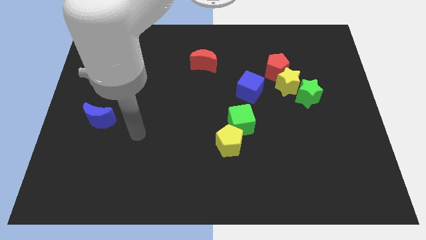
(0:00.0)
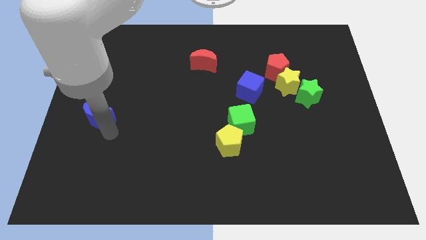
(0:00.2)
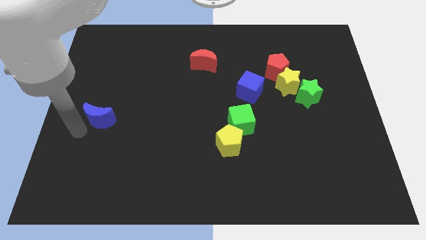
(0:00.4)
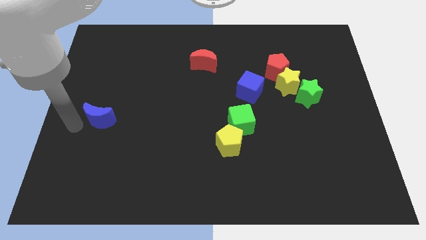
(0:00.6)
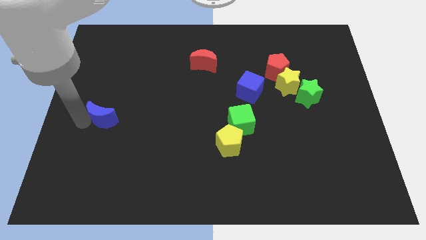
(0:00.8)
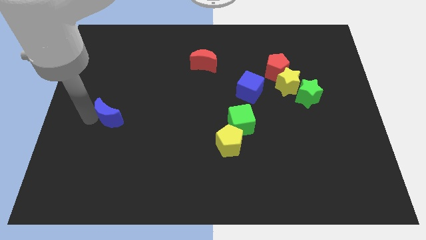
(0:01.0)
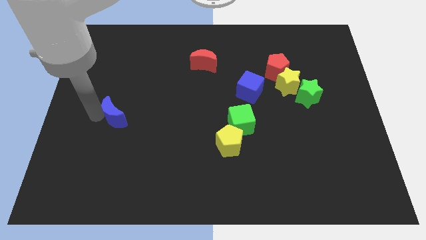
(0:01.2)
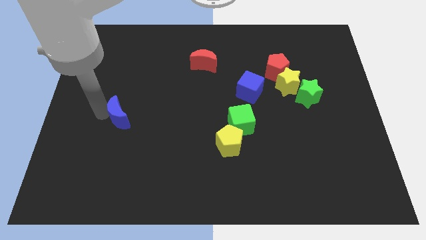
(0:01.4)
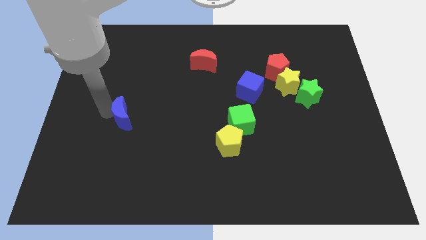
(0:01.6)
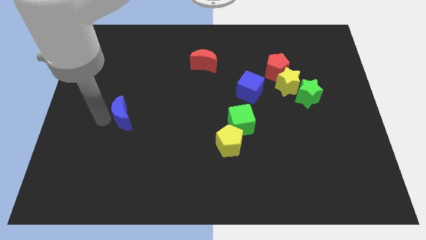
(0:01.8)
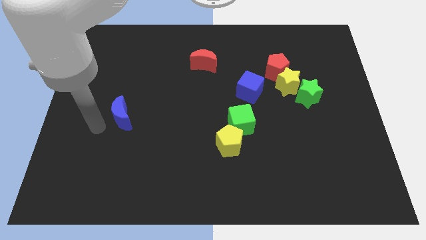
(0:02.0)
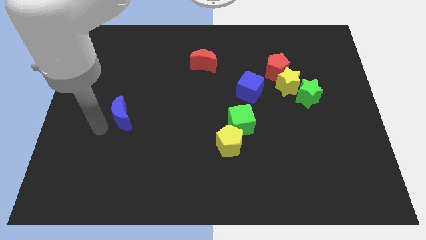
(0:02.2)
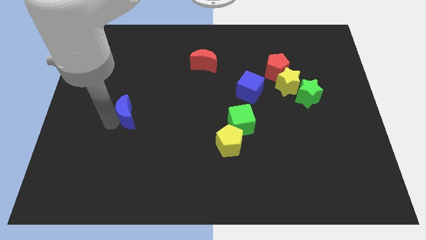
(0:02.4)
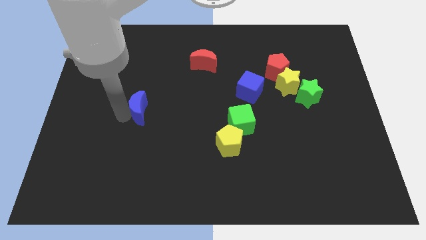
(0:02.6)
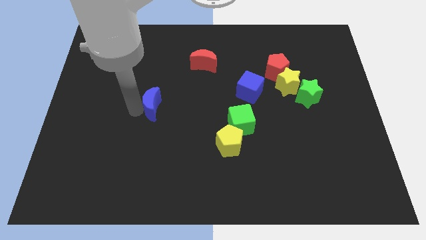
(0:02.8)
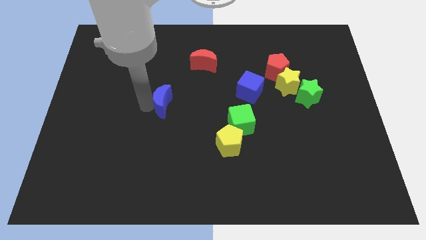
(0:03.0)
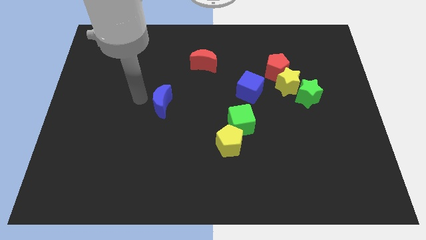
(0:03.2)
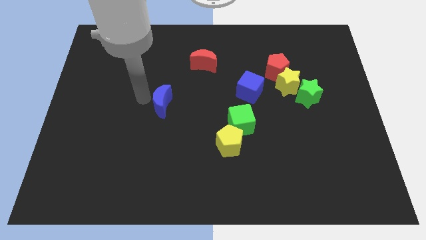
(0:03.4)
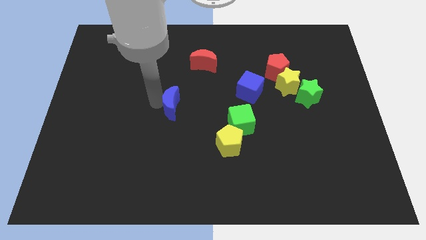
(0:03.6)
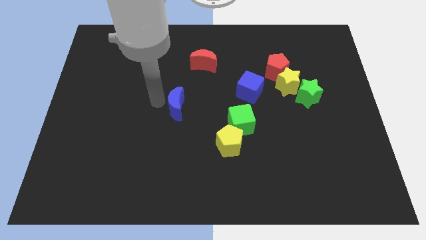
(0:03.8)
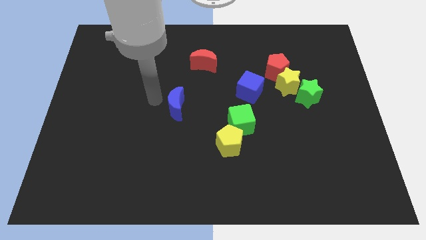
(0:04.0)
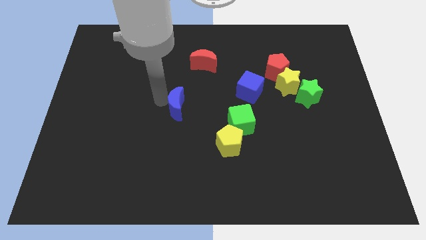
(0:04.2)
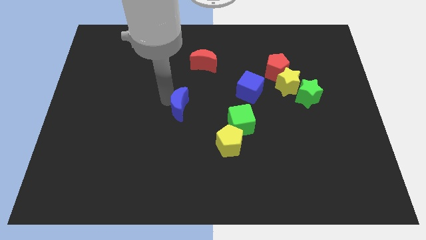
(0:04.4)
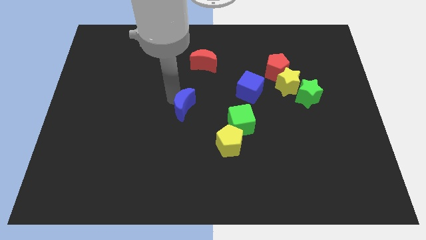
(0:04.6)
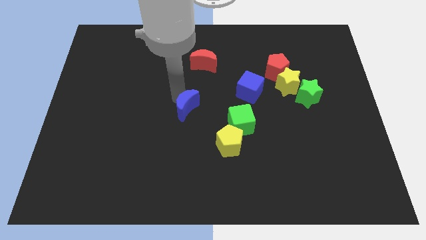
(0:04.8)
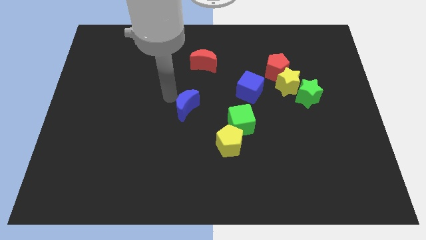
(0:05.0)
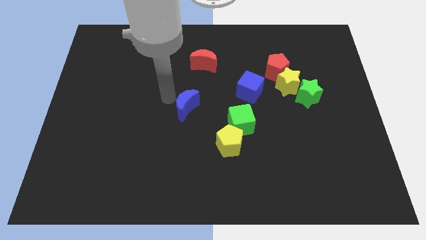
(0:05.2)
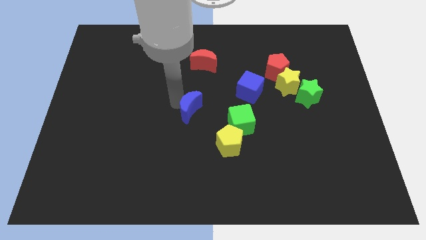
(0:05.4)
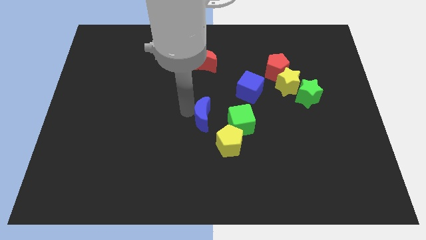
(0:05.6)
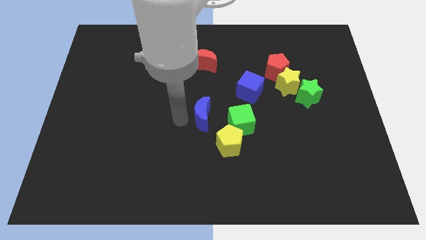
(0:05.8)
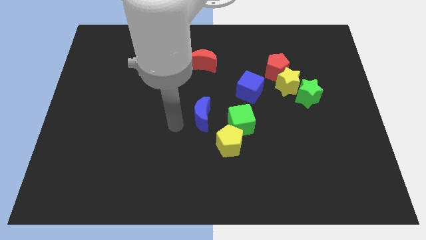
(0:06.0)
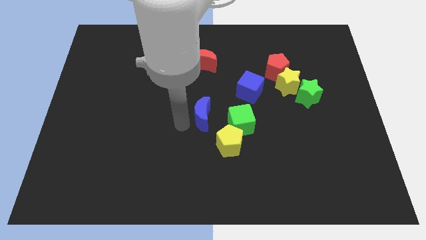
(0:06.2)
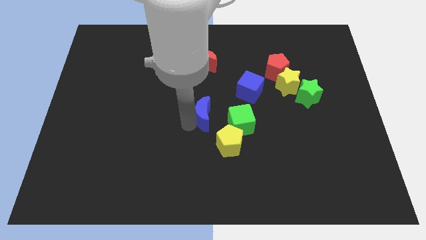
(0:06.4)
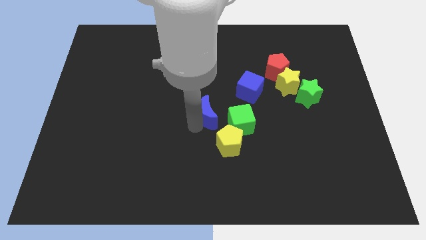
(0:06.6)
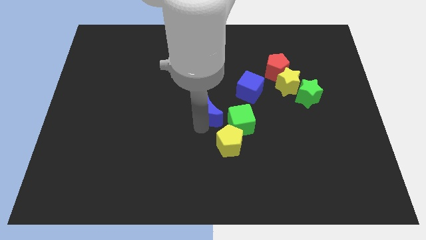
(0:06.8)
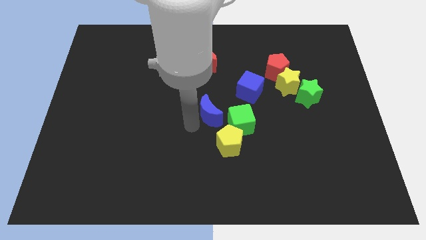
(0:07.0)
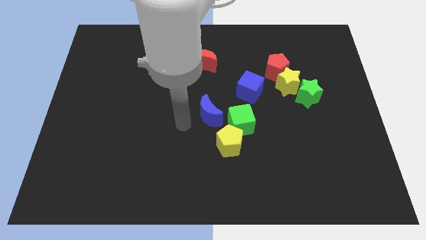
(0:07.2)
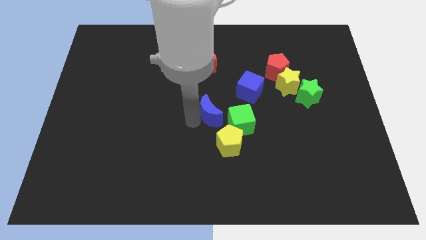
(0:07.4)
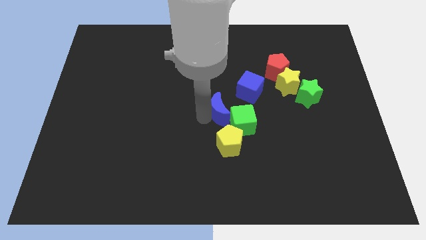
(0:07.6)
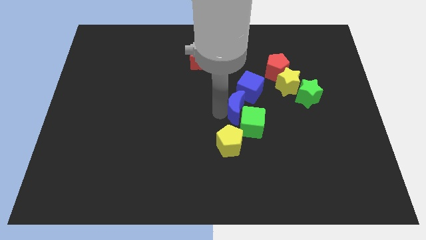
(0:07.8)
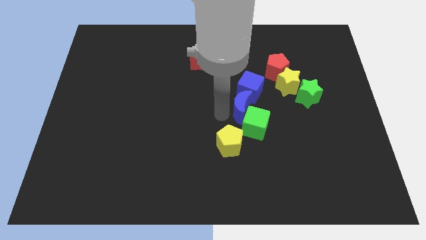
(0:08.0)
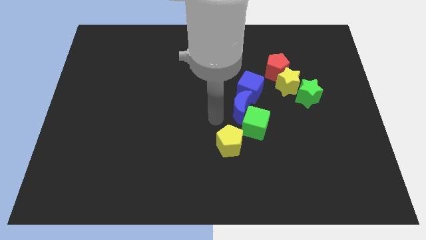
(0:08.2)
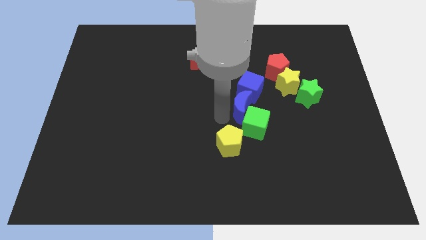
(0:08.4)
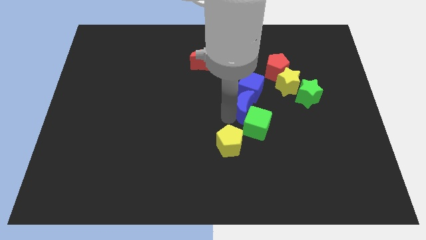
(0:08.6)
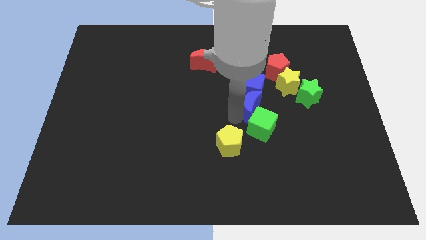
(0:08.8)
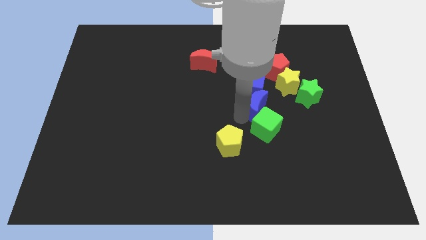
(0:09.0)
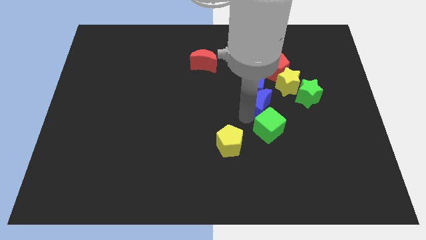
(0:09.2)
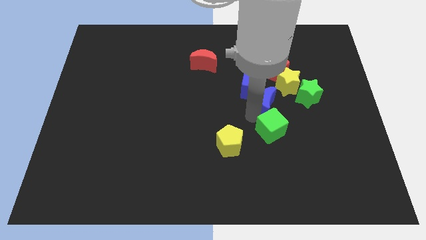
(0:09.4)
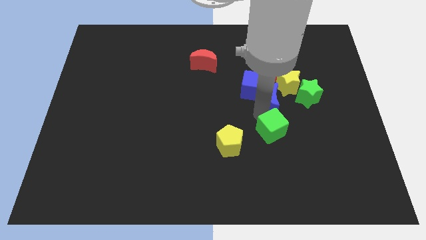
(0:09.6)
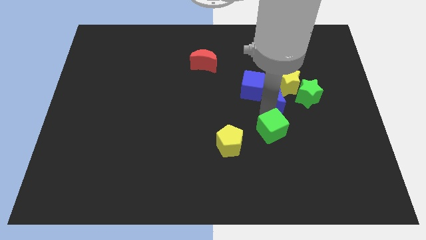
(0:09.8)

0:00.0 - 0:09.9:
move the blue moon to the yellow star

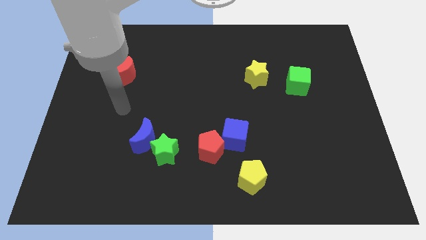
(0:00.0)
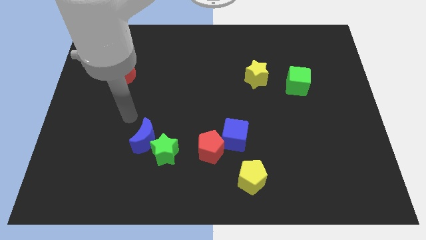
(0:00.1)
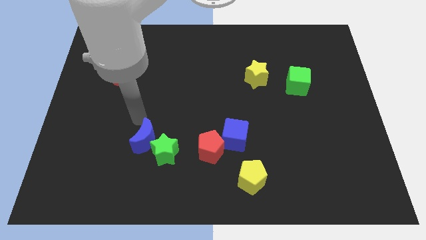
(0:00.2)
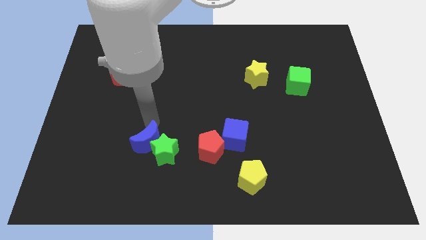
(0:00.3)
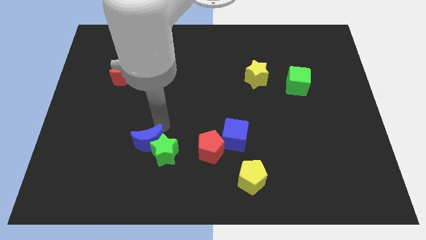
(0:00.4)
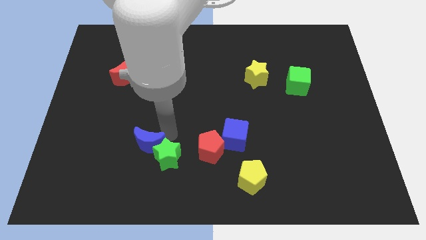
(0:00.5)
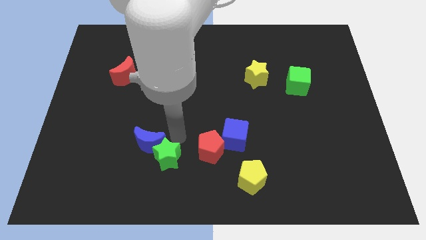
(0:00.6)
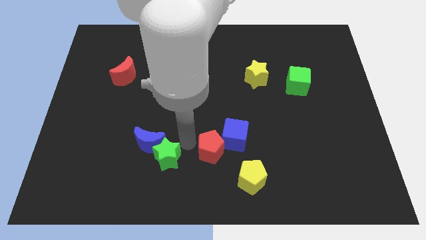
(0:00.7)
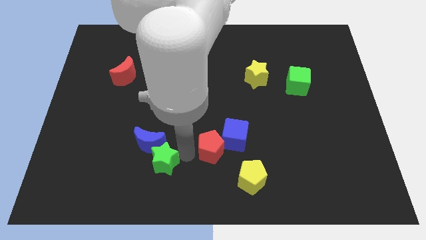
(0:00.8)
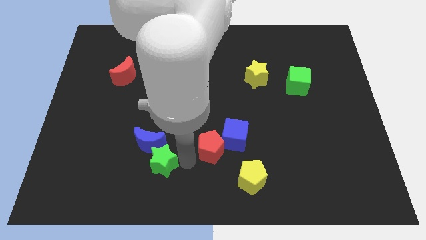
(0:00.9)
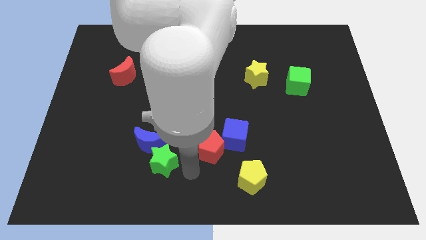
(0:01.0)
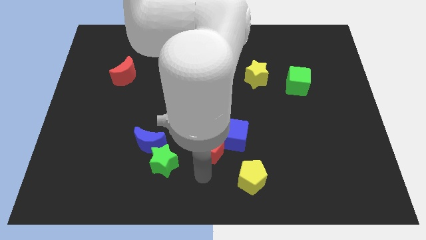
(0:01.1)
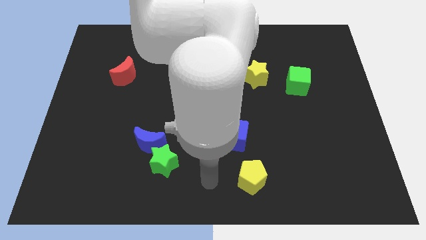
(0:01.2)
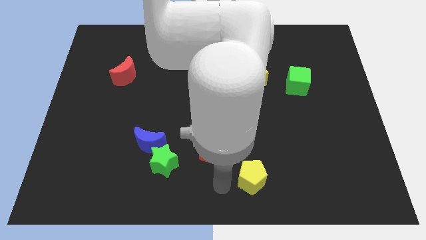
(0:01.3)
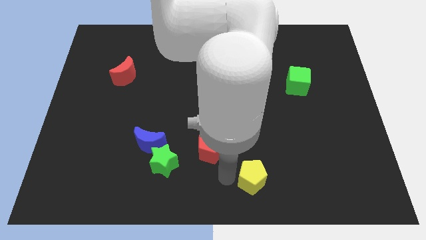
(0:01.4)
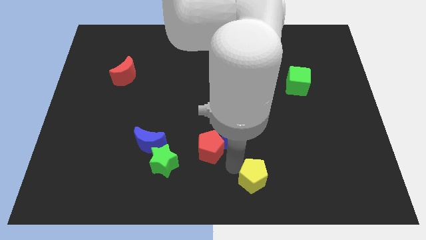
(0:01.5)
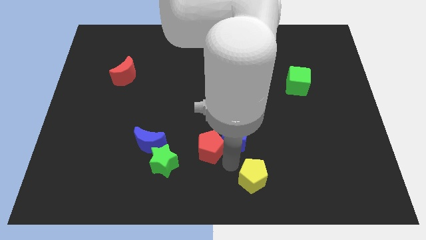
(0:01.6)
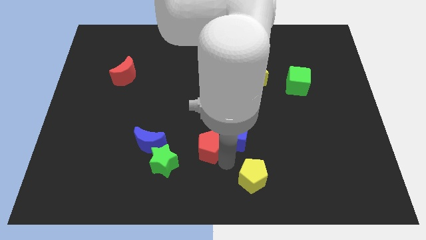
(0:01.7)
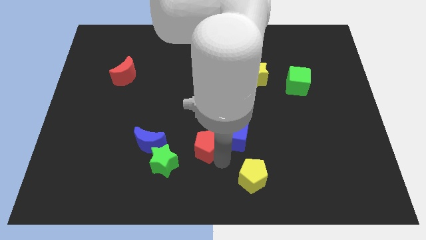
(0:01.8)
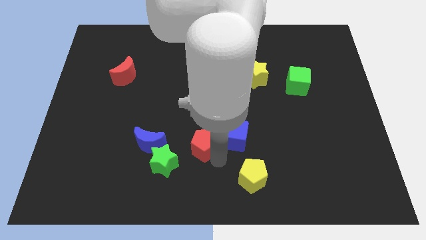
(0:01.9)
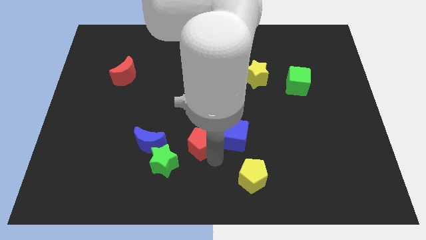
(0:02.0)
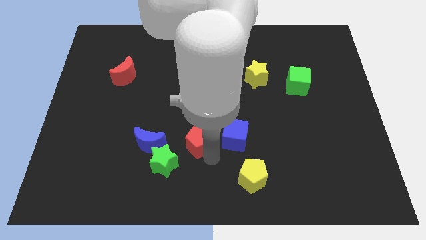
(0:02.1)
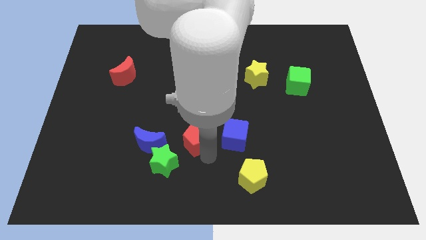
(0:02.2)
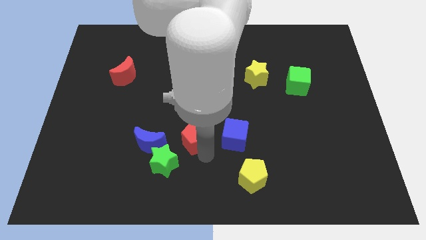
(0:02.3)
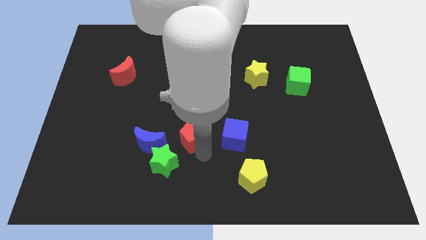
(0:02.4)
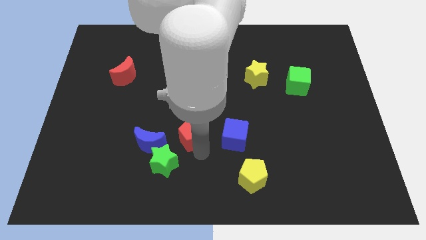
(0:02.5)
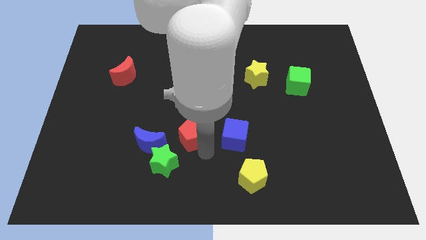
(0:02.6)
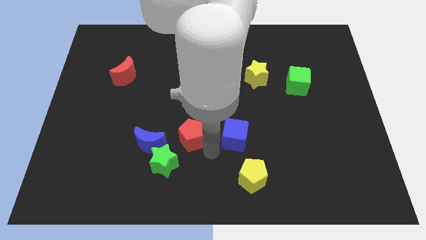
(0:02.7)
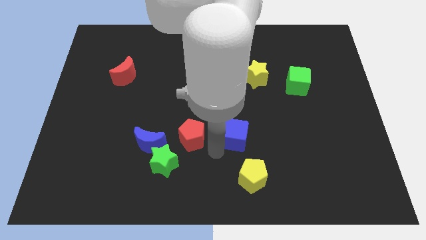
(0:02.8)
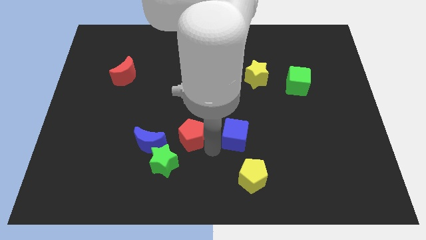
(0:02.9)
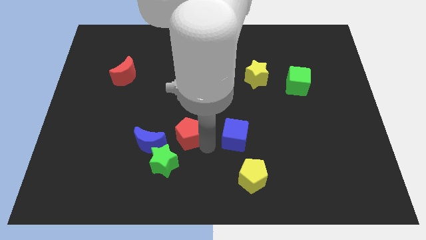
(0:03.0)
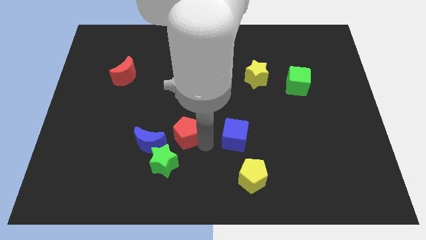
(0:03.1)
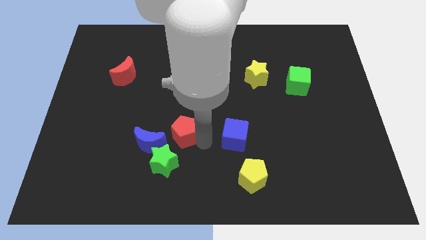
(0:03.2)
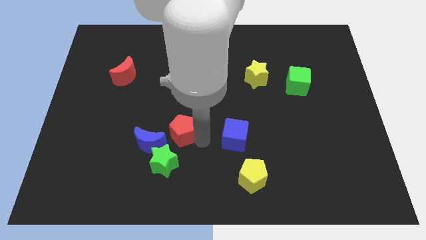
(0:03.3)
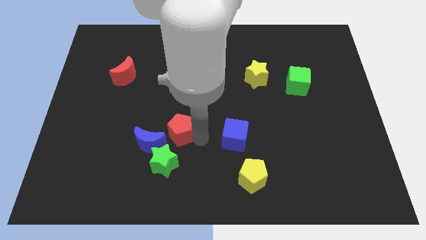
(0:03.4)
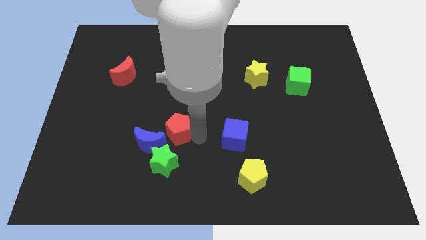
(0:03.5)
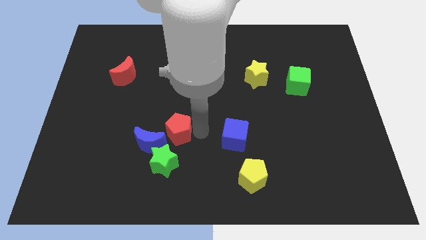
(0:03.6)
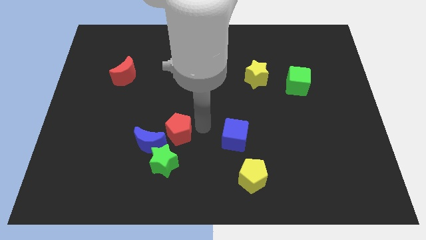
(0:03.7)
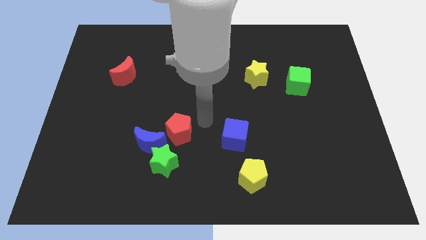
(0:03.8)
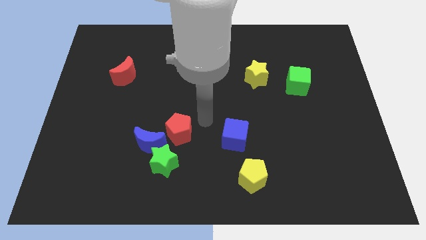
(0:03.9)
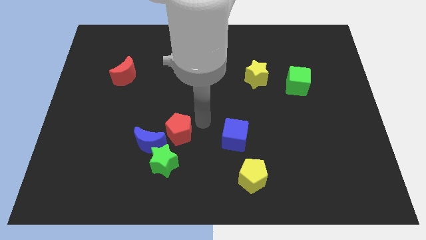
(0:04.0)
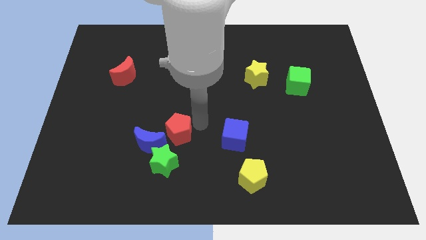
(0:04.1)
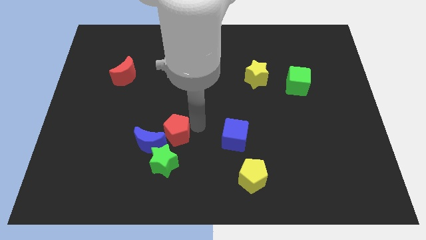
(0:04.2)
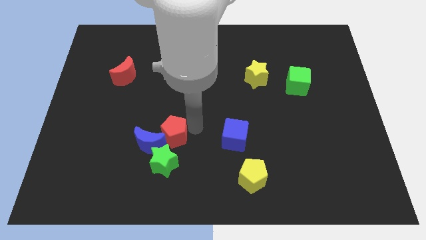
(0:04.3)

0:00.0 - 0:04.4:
put the red pentagon close to the blue moon
